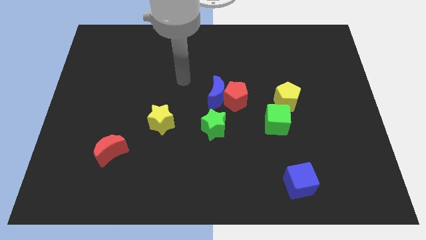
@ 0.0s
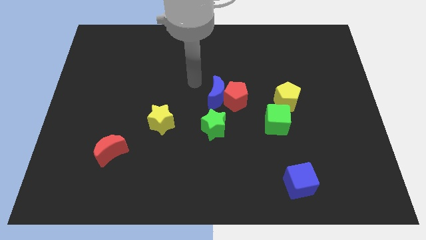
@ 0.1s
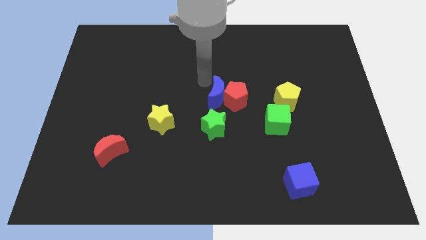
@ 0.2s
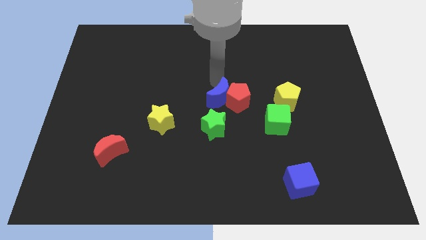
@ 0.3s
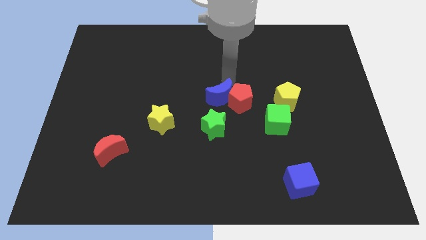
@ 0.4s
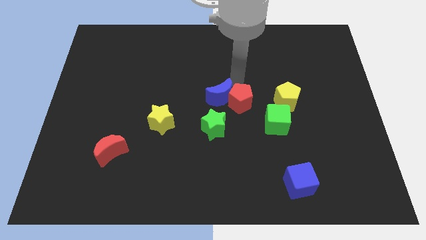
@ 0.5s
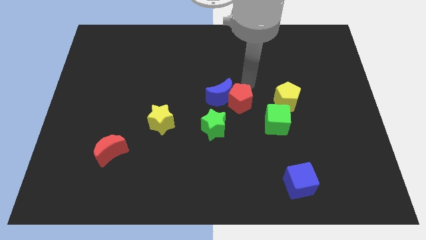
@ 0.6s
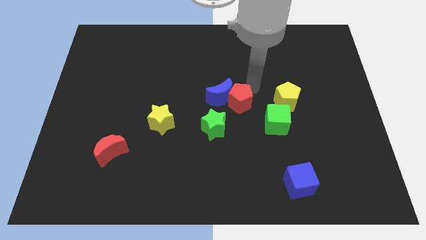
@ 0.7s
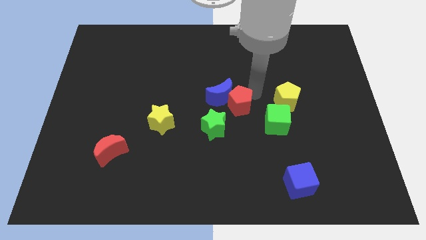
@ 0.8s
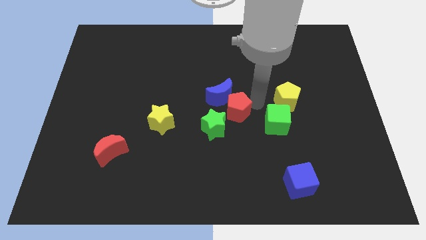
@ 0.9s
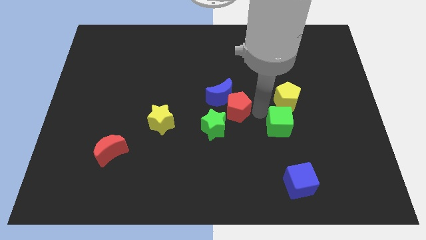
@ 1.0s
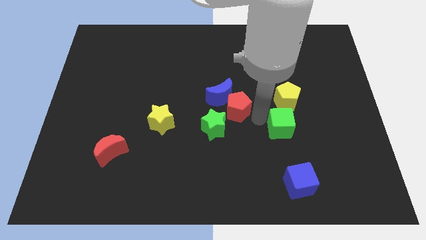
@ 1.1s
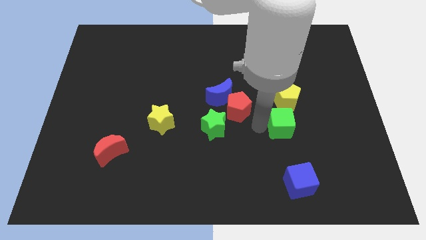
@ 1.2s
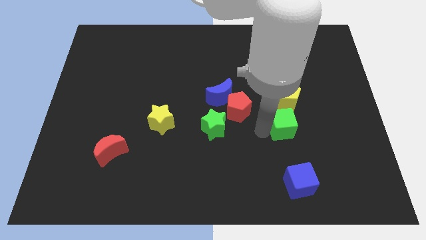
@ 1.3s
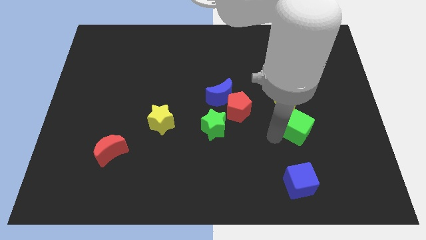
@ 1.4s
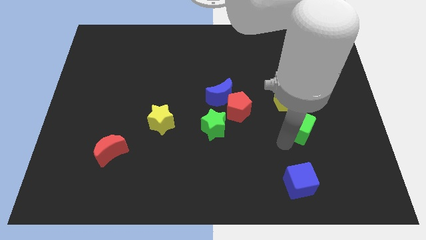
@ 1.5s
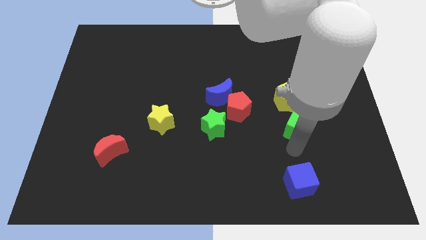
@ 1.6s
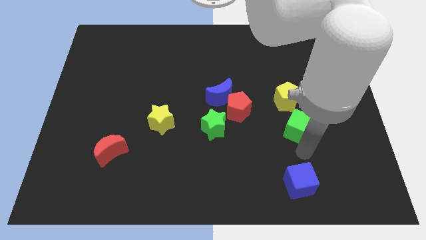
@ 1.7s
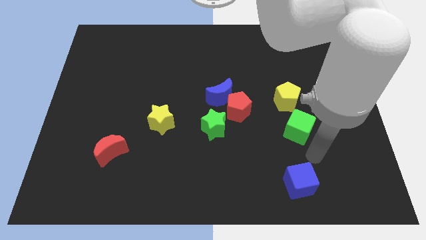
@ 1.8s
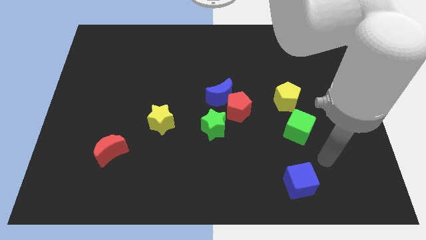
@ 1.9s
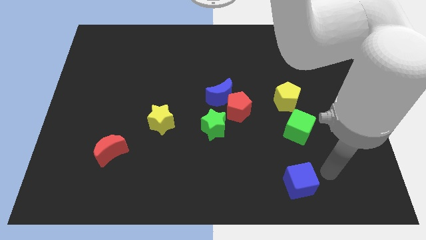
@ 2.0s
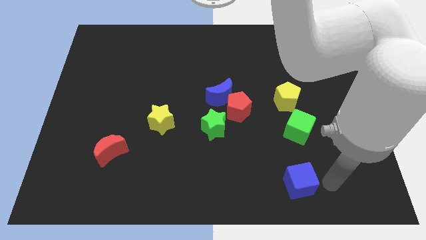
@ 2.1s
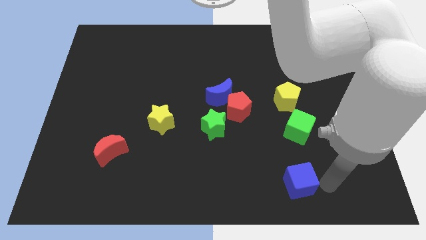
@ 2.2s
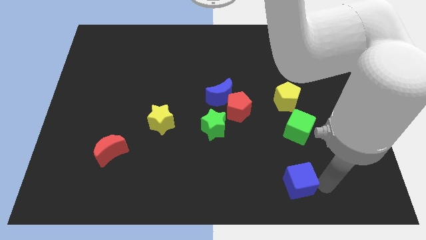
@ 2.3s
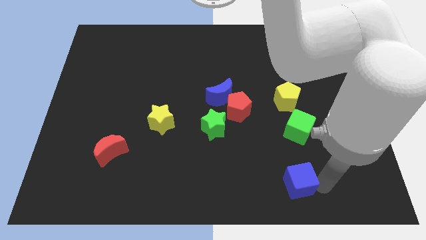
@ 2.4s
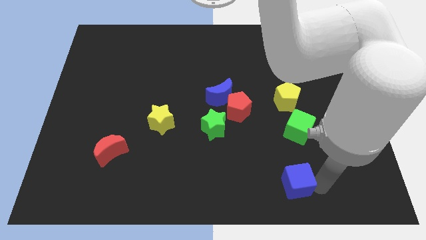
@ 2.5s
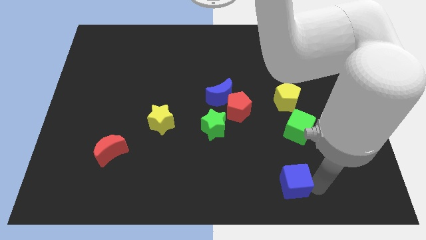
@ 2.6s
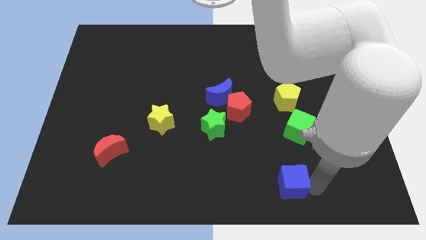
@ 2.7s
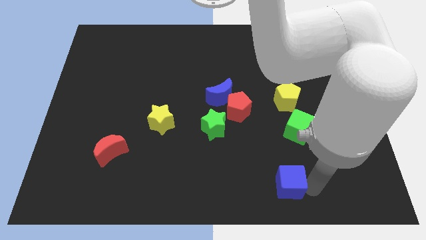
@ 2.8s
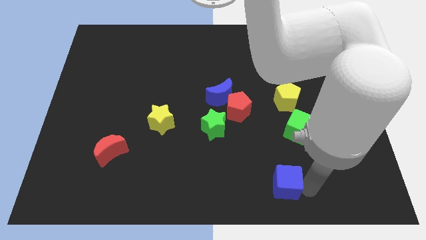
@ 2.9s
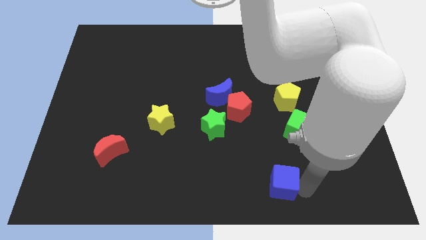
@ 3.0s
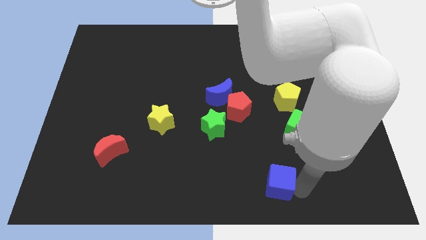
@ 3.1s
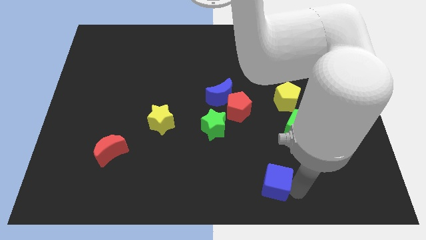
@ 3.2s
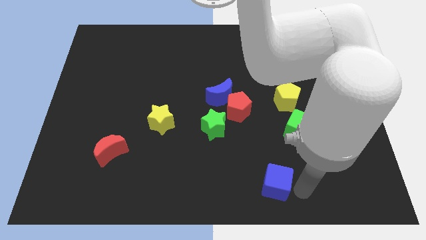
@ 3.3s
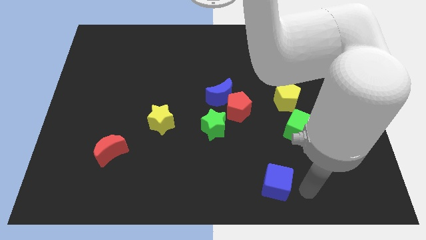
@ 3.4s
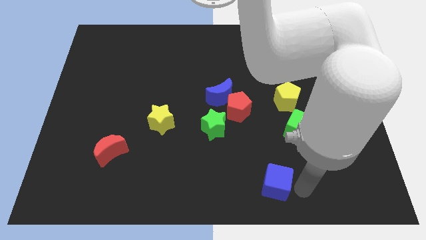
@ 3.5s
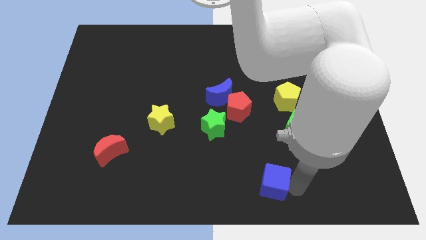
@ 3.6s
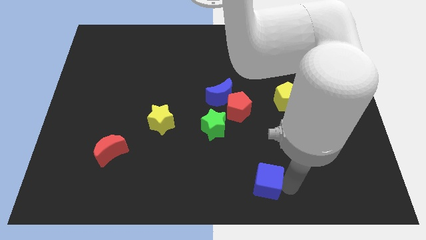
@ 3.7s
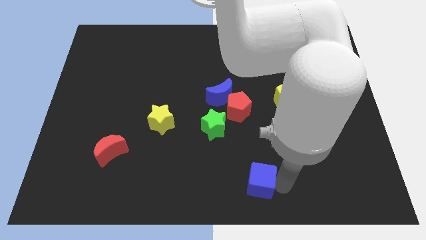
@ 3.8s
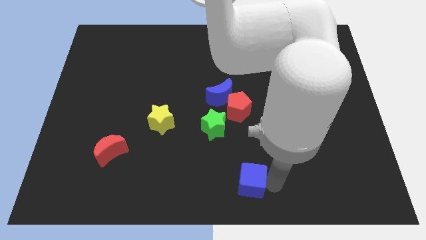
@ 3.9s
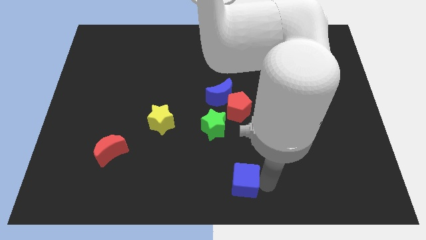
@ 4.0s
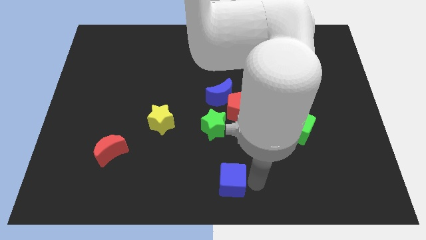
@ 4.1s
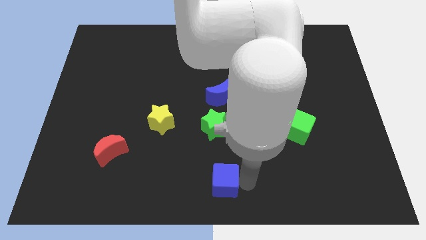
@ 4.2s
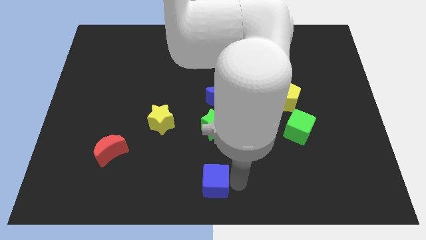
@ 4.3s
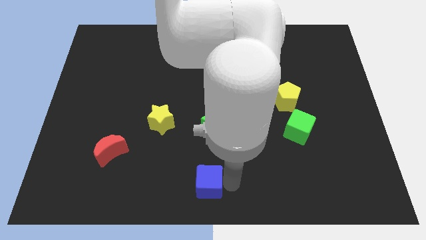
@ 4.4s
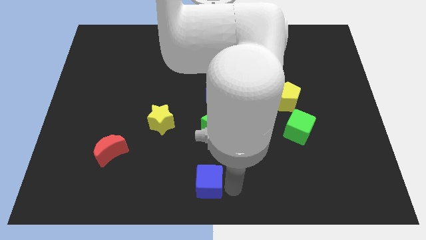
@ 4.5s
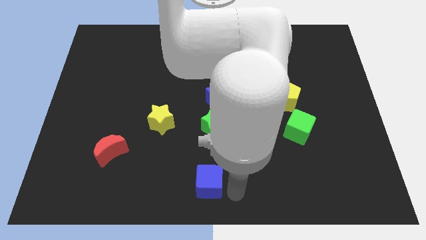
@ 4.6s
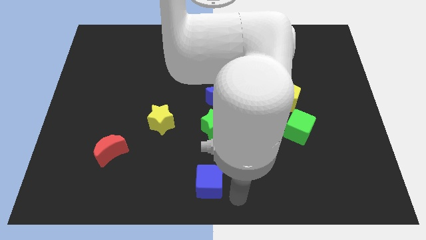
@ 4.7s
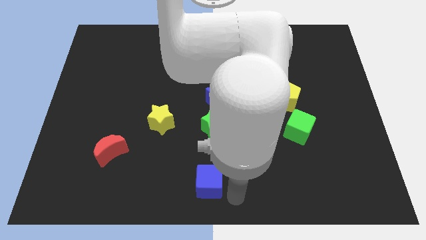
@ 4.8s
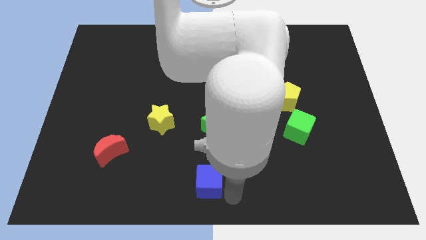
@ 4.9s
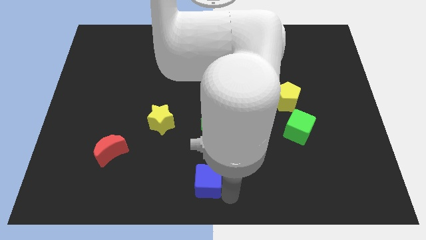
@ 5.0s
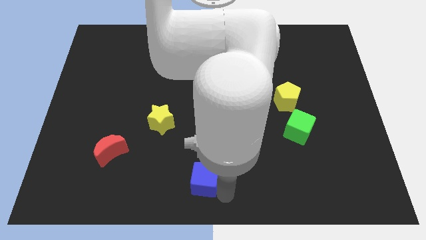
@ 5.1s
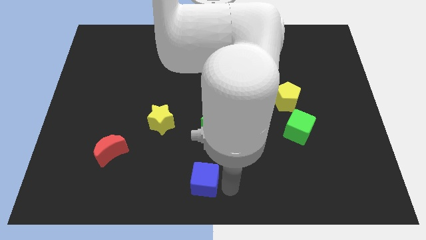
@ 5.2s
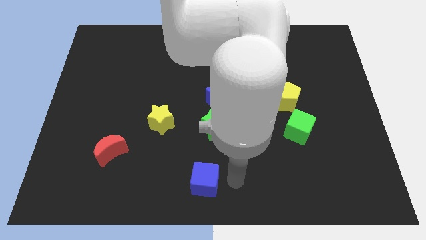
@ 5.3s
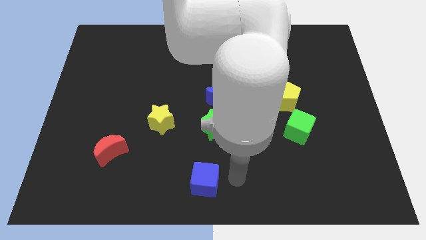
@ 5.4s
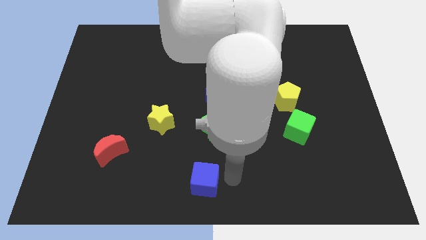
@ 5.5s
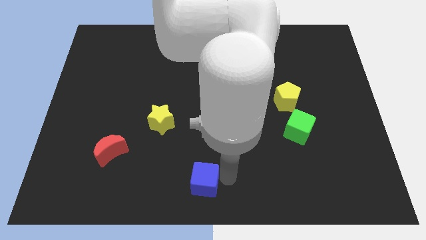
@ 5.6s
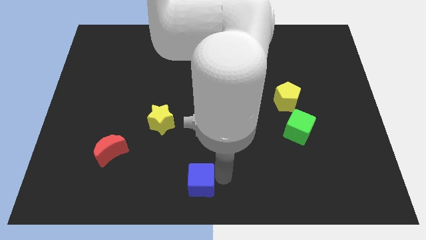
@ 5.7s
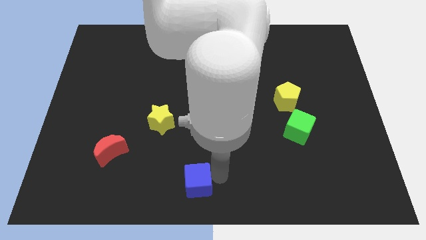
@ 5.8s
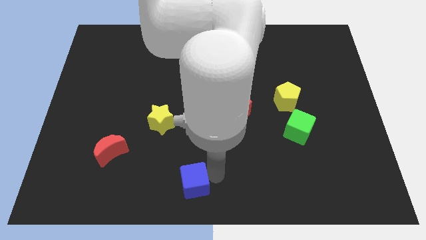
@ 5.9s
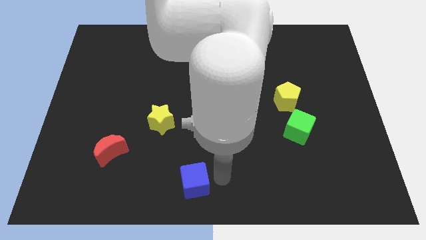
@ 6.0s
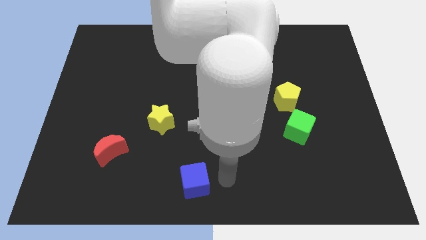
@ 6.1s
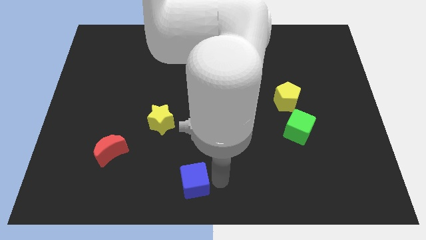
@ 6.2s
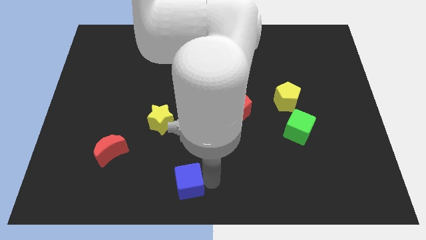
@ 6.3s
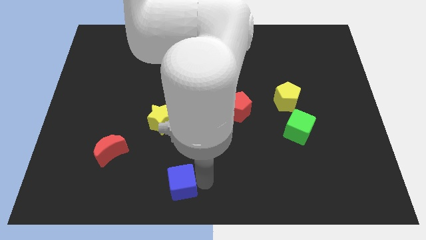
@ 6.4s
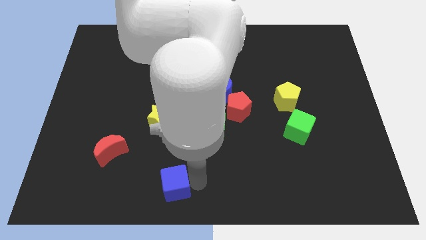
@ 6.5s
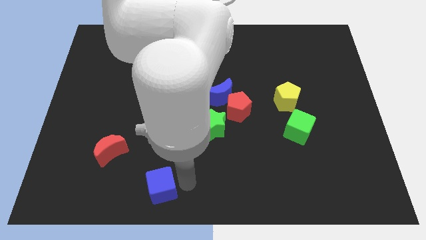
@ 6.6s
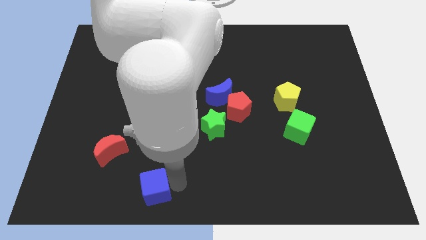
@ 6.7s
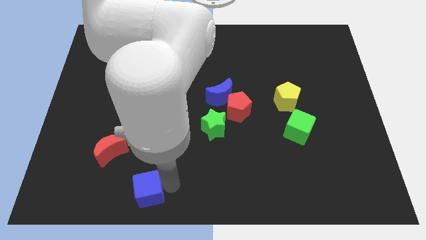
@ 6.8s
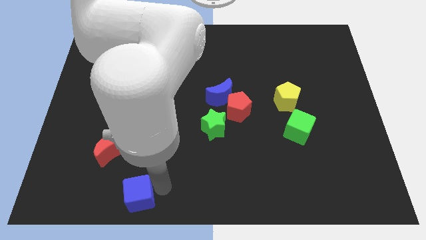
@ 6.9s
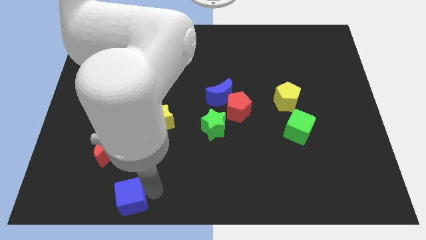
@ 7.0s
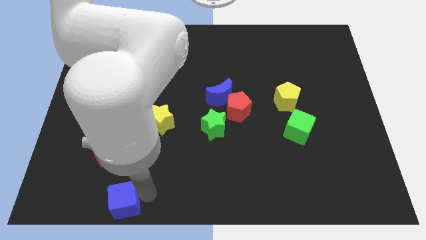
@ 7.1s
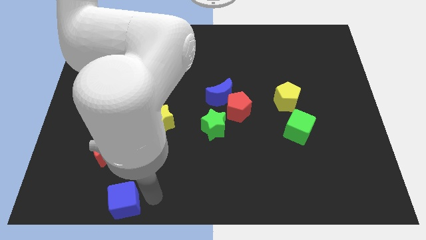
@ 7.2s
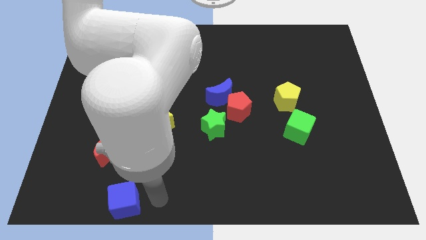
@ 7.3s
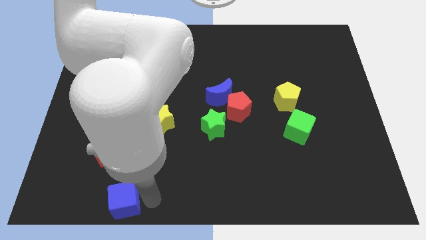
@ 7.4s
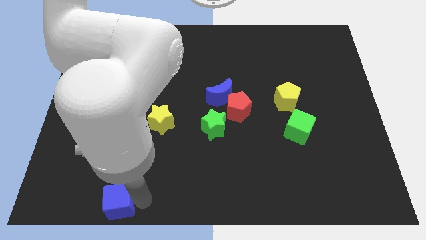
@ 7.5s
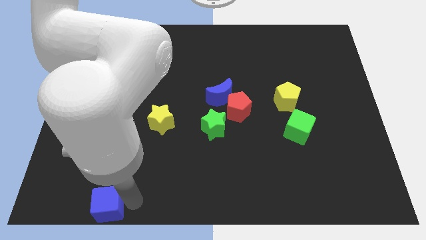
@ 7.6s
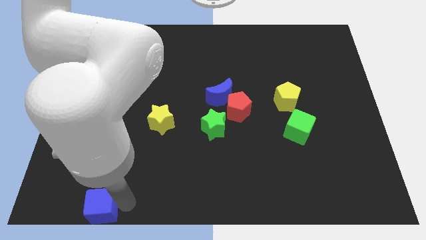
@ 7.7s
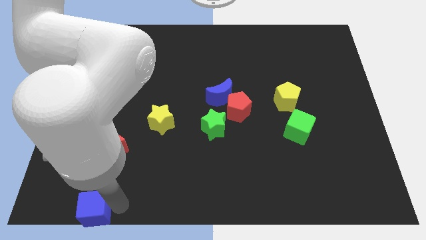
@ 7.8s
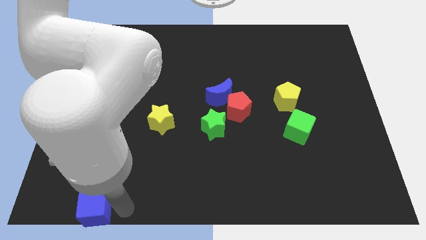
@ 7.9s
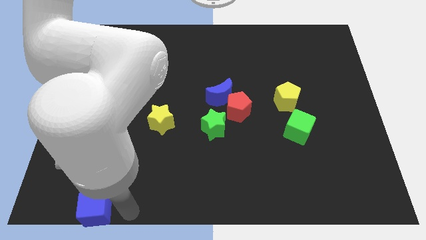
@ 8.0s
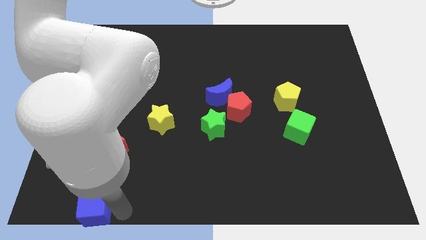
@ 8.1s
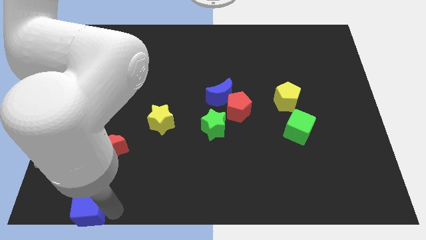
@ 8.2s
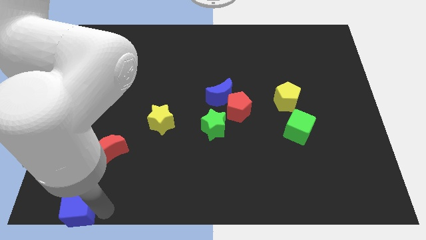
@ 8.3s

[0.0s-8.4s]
push the blue cube to the lower left corner
